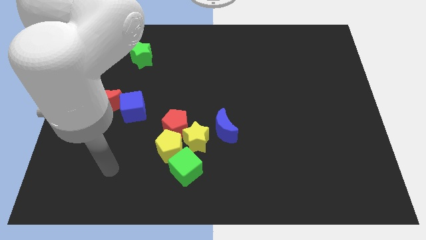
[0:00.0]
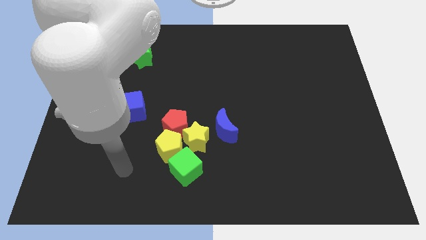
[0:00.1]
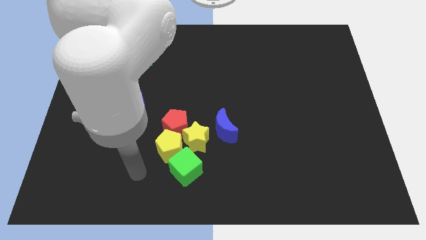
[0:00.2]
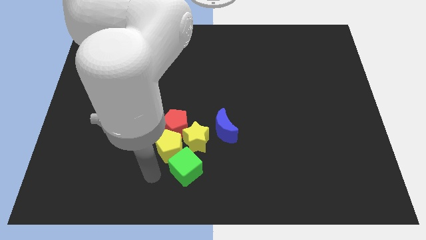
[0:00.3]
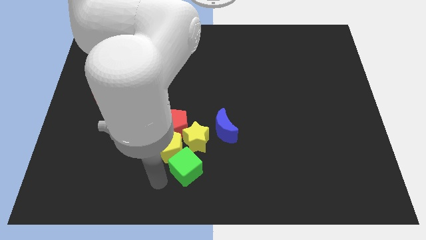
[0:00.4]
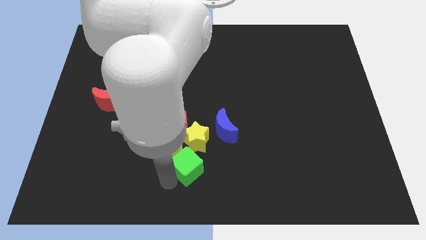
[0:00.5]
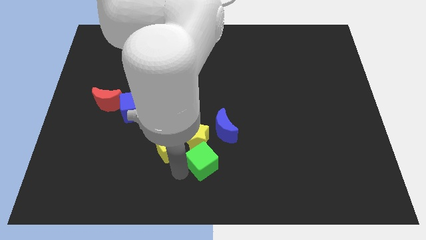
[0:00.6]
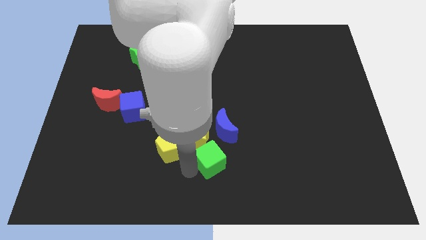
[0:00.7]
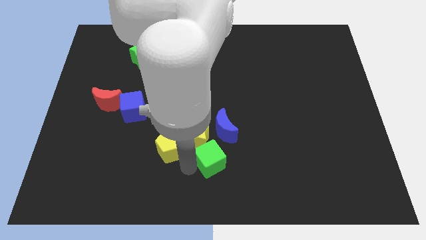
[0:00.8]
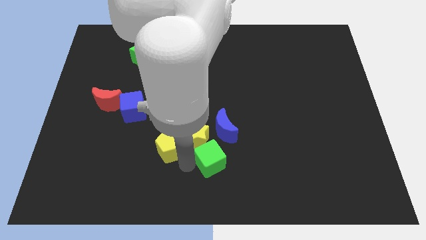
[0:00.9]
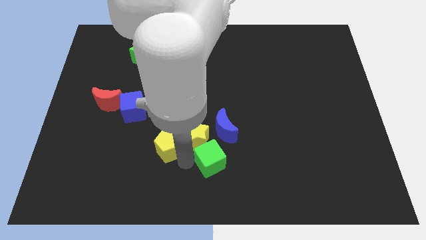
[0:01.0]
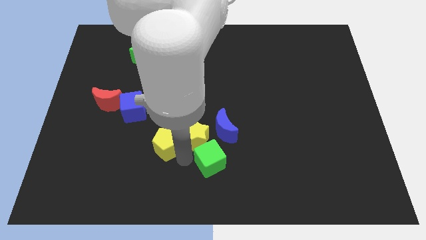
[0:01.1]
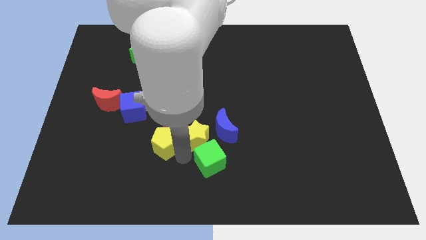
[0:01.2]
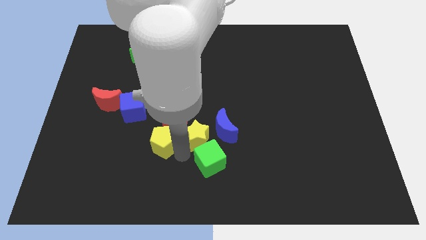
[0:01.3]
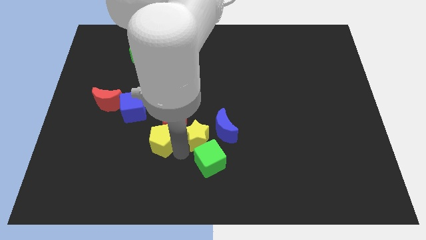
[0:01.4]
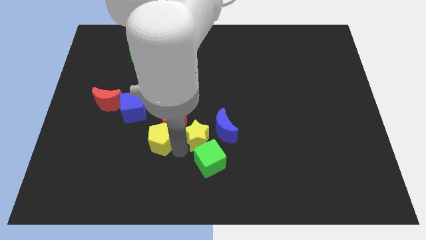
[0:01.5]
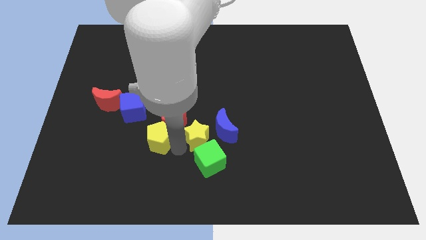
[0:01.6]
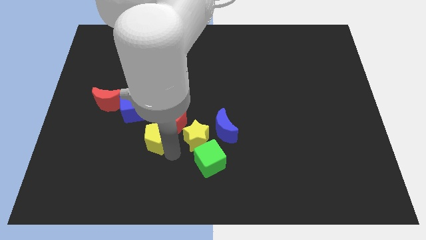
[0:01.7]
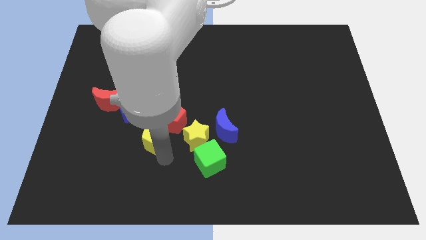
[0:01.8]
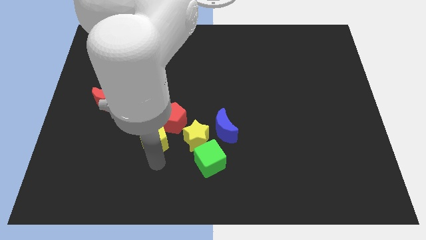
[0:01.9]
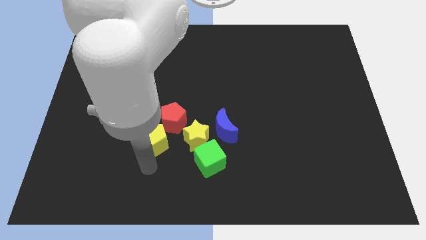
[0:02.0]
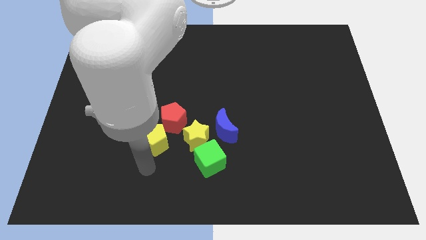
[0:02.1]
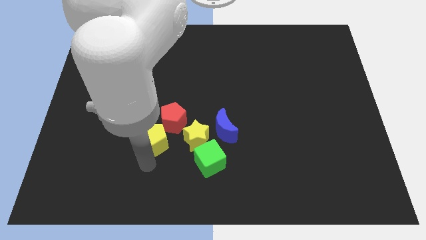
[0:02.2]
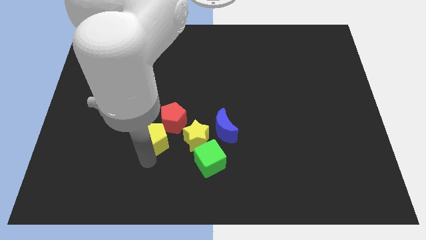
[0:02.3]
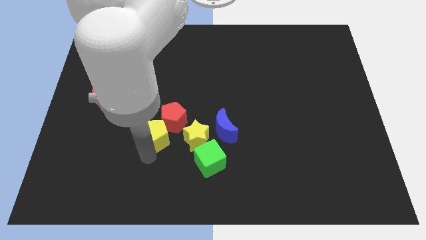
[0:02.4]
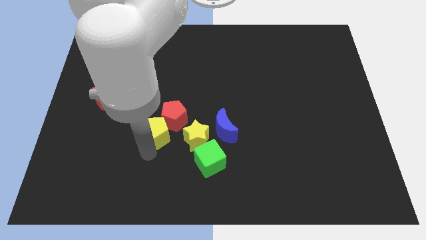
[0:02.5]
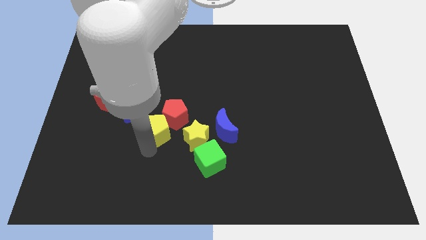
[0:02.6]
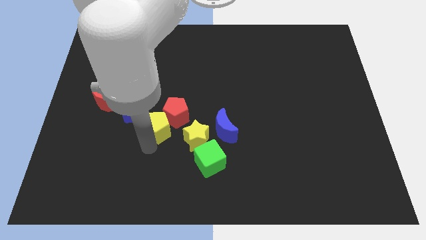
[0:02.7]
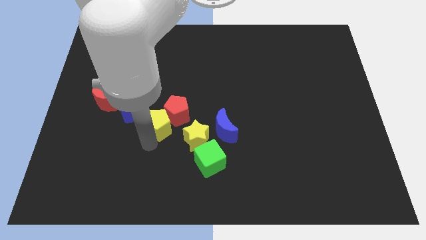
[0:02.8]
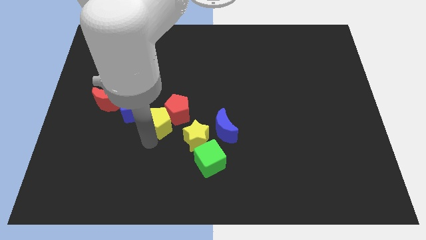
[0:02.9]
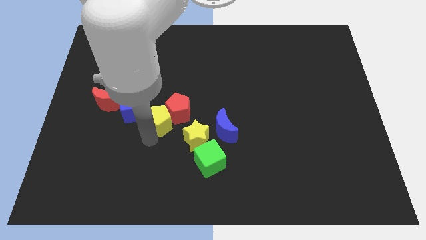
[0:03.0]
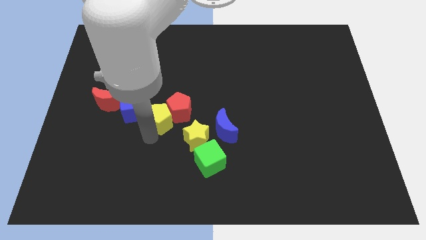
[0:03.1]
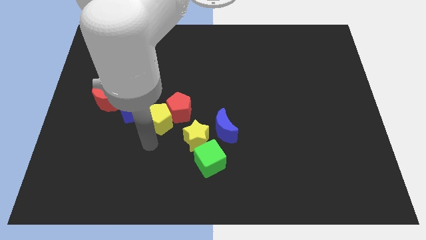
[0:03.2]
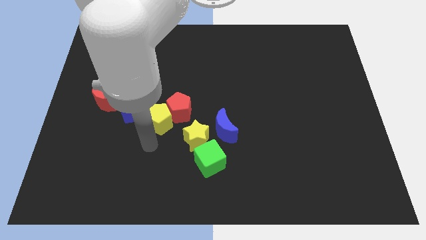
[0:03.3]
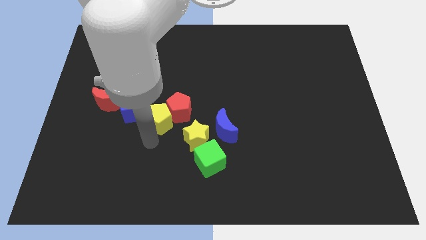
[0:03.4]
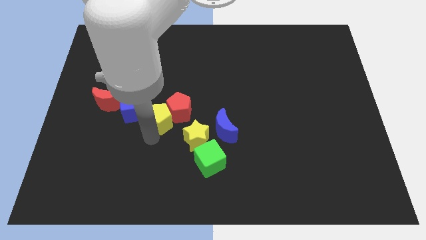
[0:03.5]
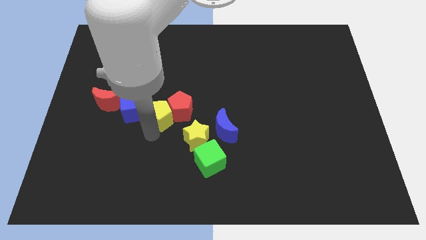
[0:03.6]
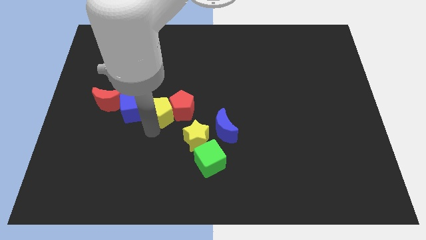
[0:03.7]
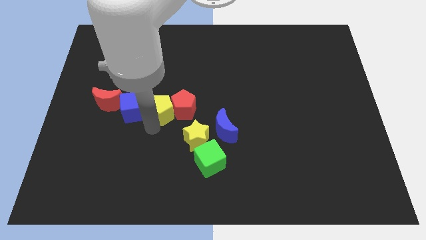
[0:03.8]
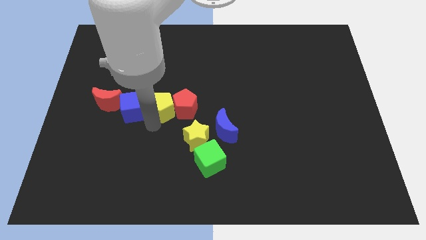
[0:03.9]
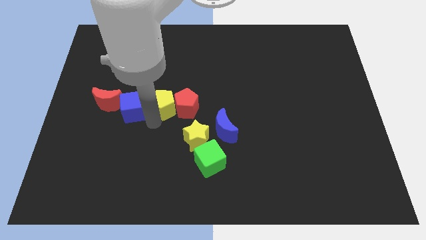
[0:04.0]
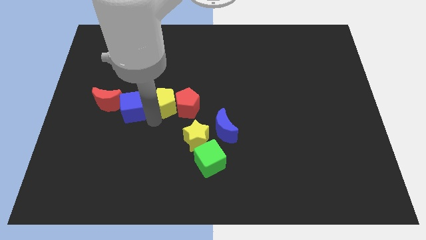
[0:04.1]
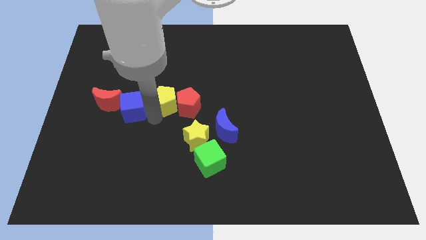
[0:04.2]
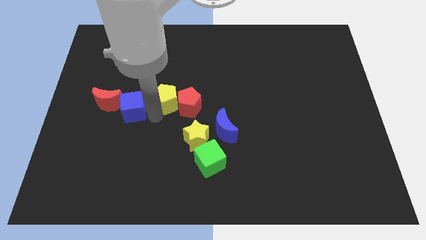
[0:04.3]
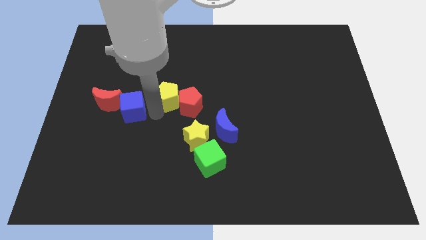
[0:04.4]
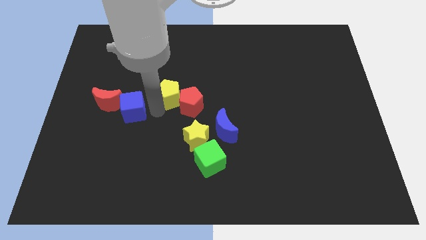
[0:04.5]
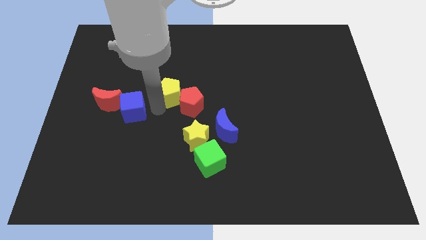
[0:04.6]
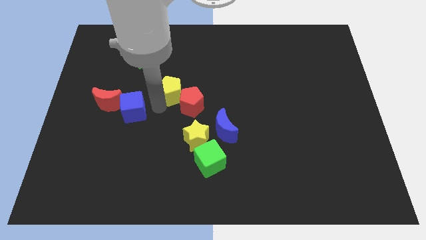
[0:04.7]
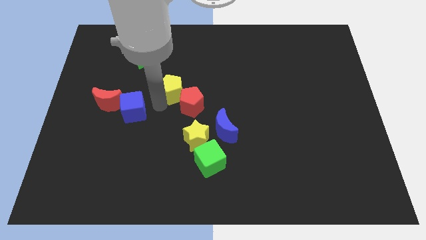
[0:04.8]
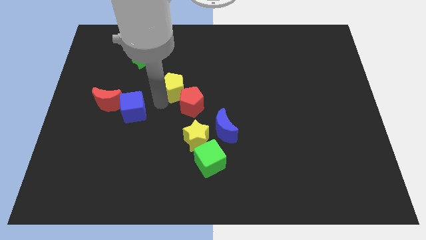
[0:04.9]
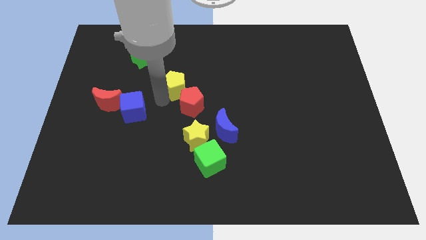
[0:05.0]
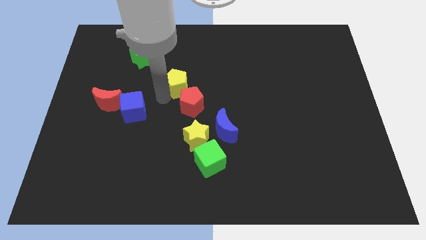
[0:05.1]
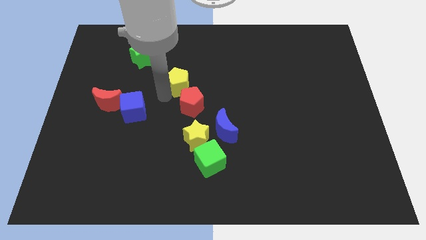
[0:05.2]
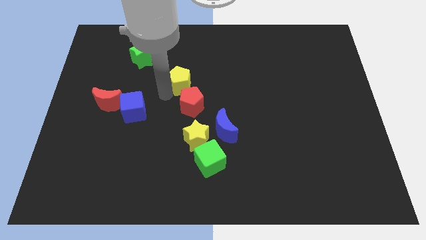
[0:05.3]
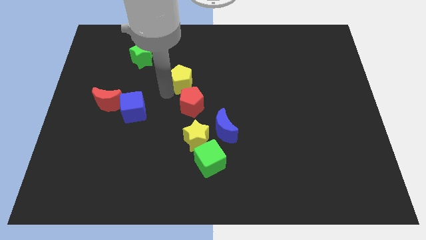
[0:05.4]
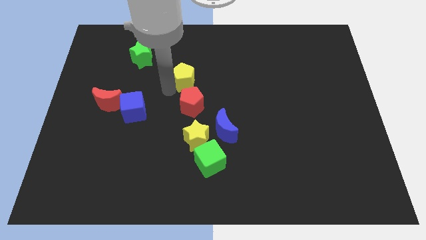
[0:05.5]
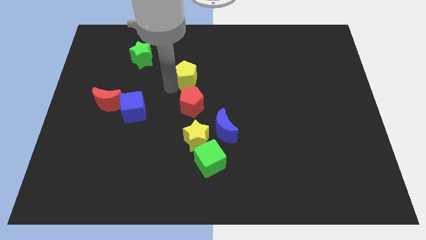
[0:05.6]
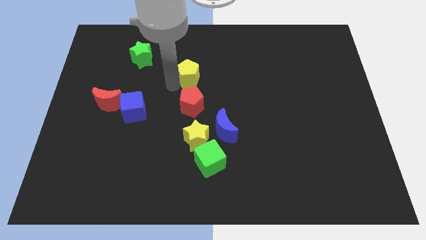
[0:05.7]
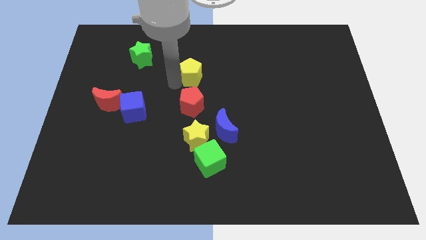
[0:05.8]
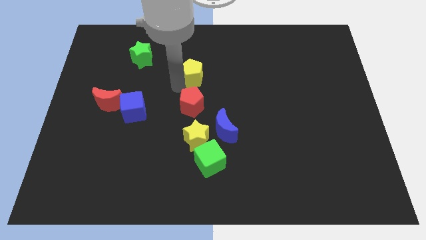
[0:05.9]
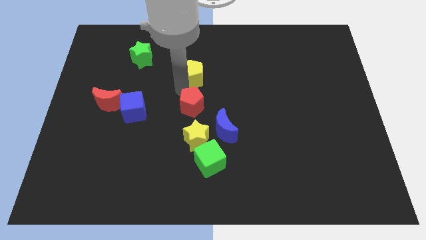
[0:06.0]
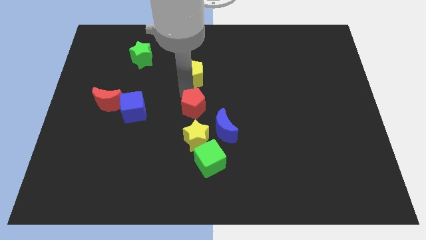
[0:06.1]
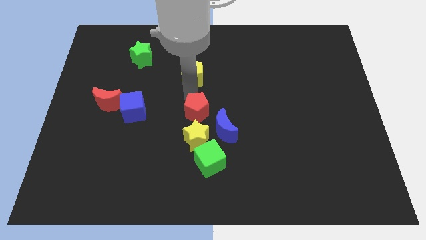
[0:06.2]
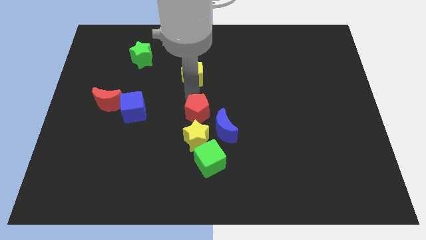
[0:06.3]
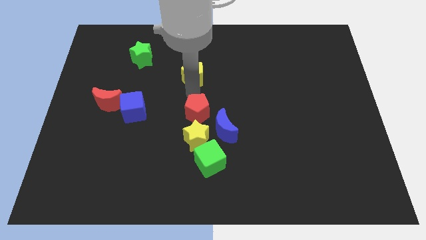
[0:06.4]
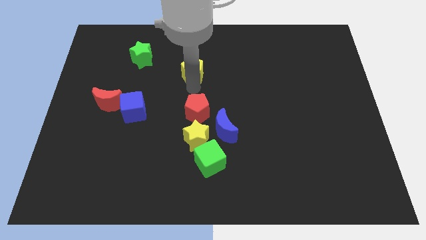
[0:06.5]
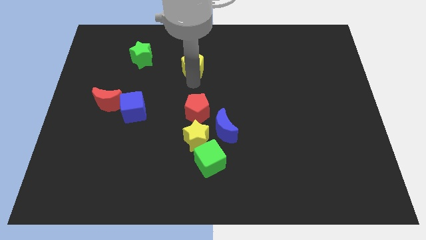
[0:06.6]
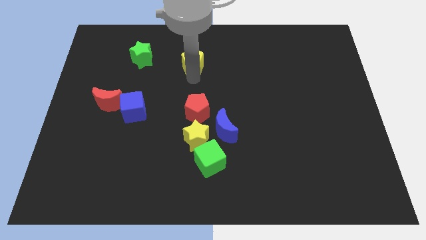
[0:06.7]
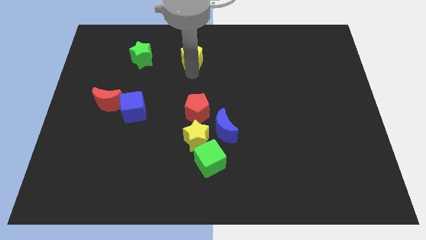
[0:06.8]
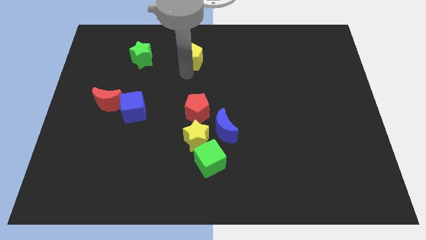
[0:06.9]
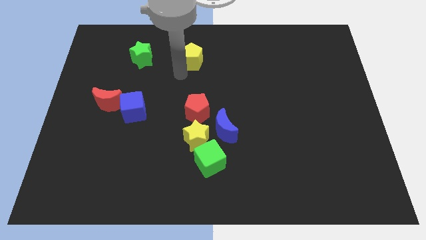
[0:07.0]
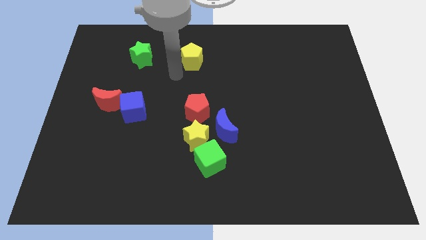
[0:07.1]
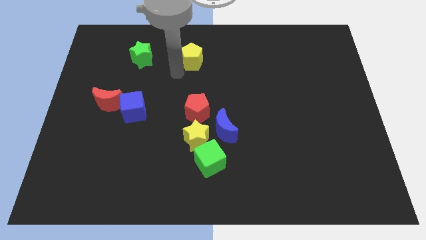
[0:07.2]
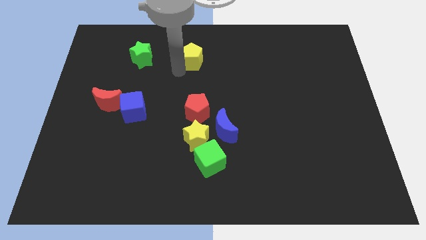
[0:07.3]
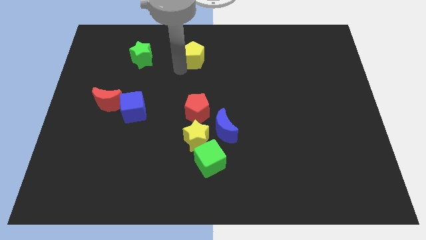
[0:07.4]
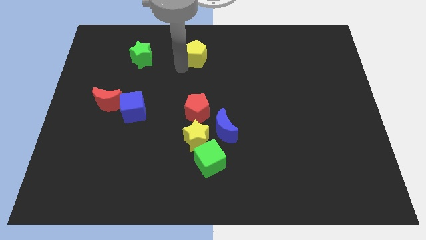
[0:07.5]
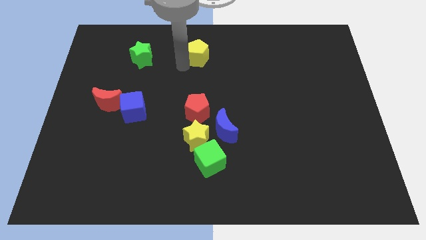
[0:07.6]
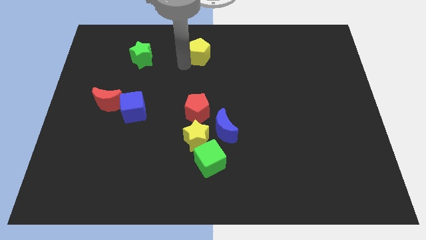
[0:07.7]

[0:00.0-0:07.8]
move the yellow pentagon to the top side
